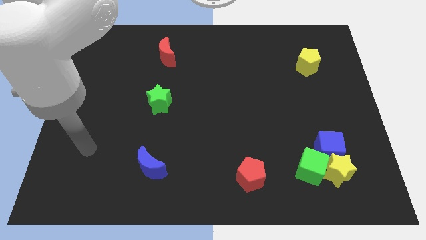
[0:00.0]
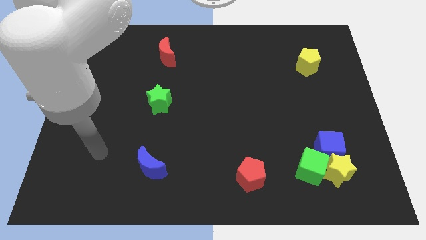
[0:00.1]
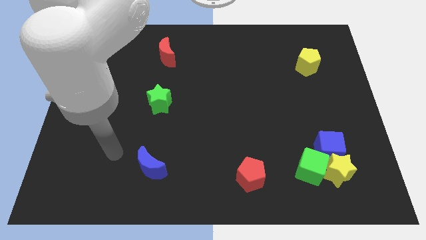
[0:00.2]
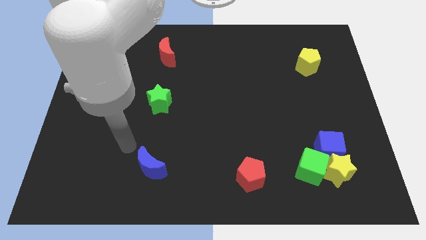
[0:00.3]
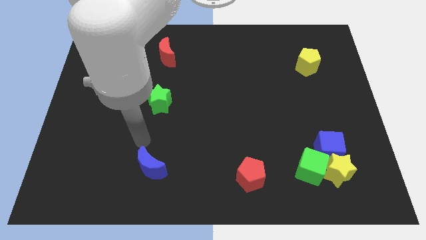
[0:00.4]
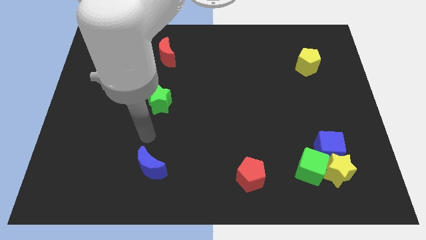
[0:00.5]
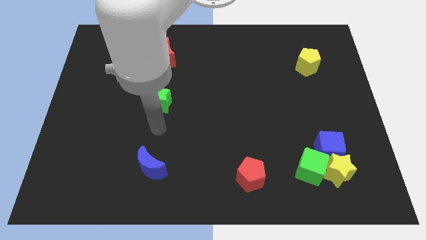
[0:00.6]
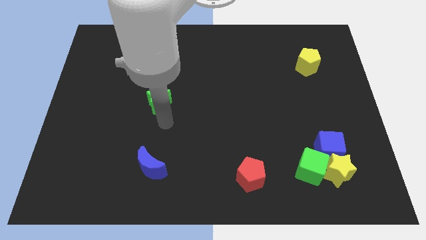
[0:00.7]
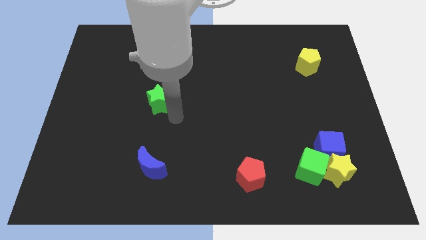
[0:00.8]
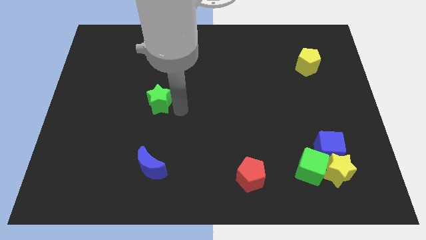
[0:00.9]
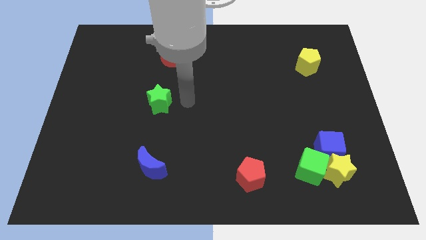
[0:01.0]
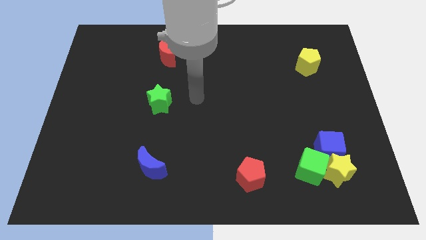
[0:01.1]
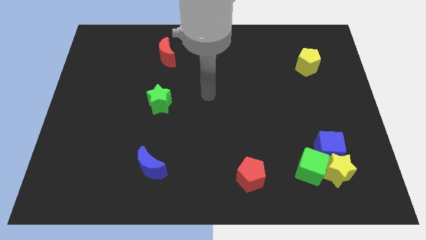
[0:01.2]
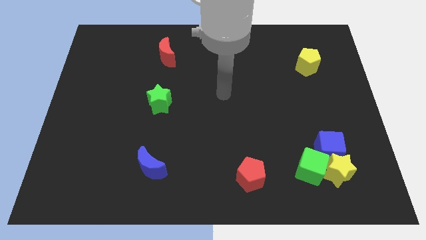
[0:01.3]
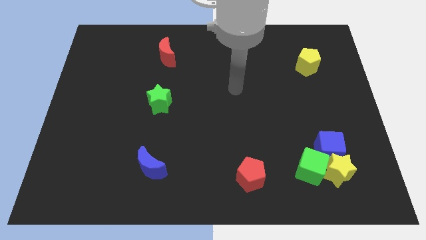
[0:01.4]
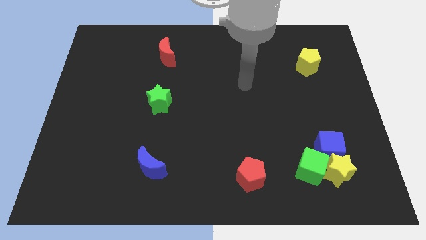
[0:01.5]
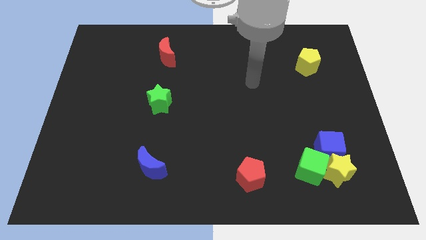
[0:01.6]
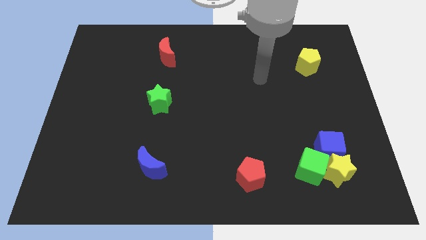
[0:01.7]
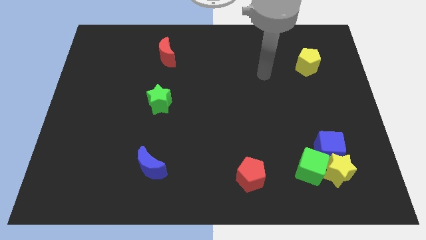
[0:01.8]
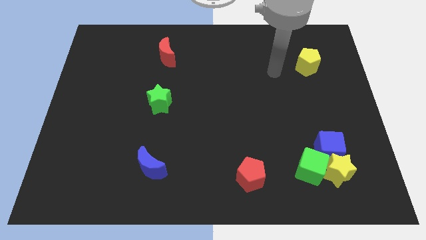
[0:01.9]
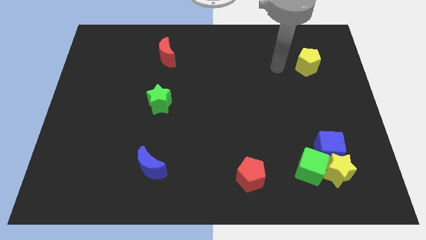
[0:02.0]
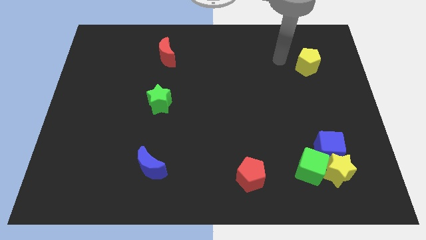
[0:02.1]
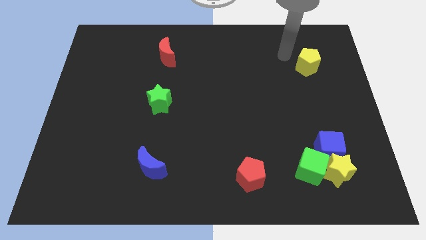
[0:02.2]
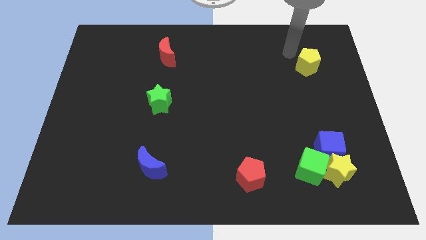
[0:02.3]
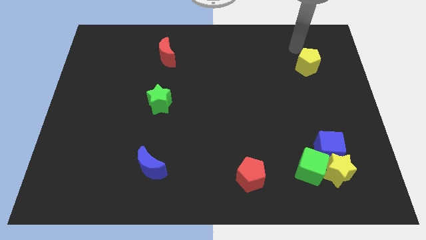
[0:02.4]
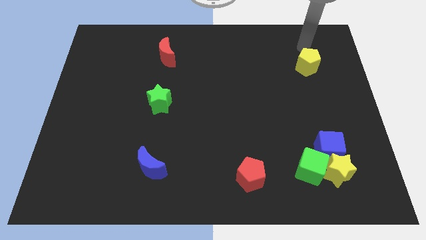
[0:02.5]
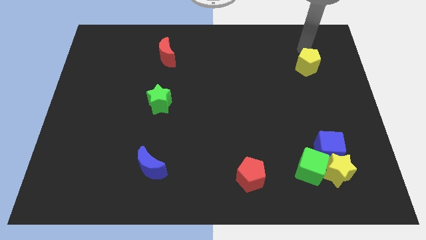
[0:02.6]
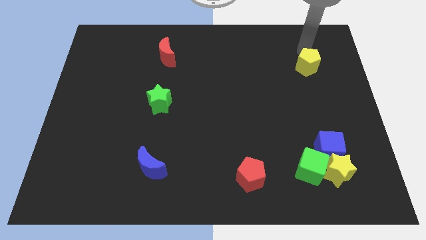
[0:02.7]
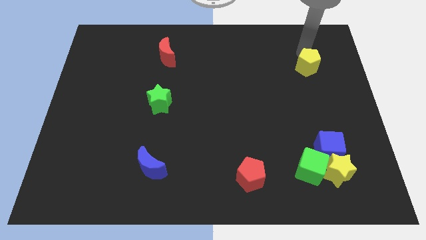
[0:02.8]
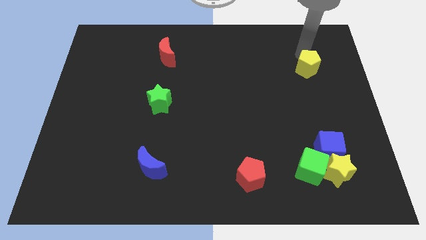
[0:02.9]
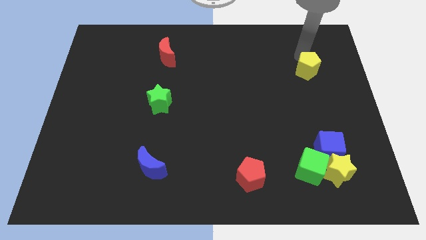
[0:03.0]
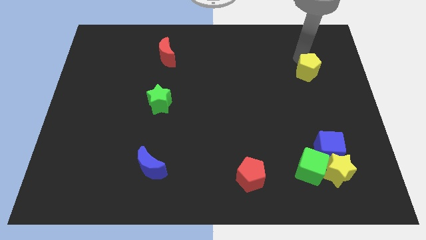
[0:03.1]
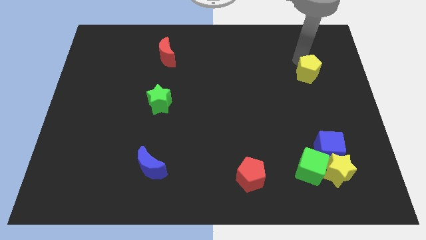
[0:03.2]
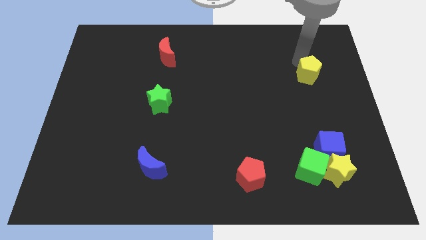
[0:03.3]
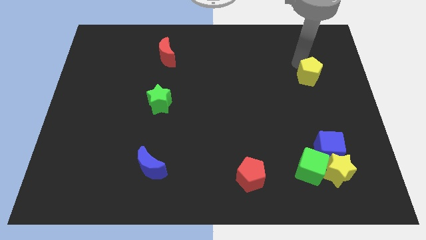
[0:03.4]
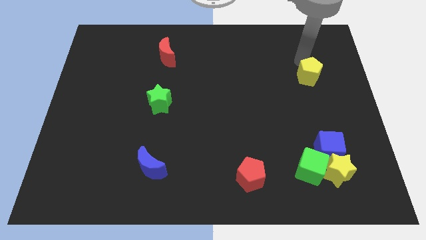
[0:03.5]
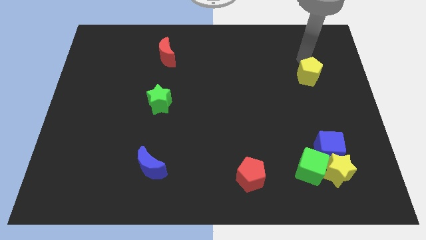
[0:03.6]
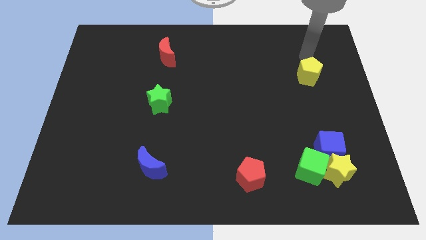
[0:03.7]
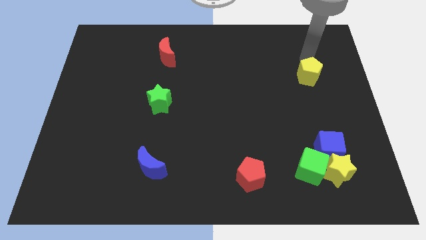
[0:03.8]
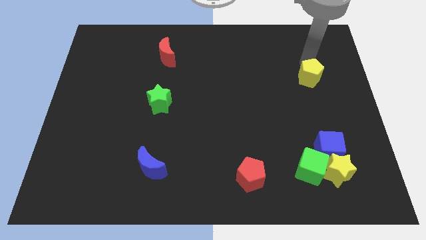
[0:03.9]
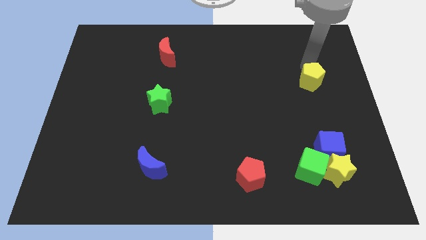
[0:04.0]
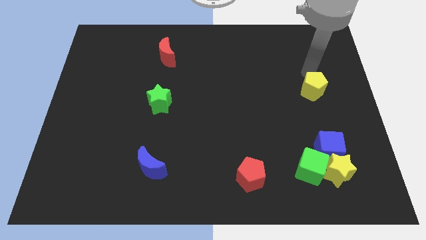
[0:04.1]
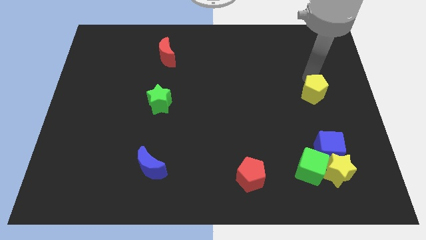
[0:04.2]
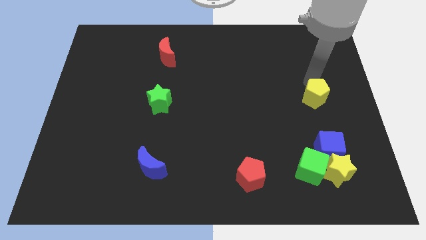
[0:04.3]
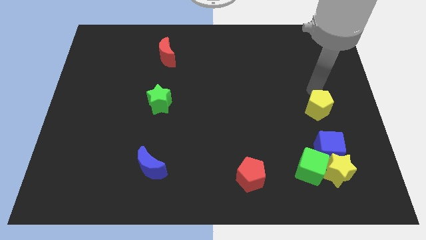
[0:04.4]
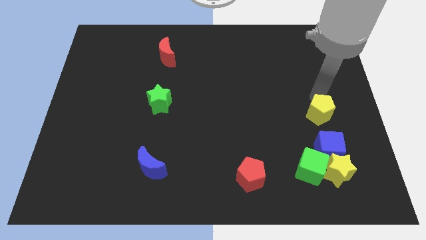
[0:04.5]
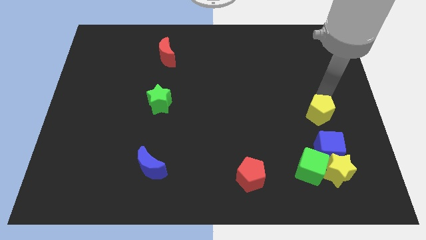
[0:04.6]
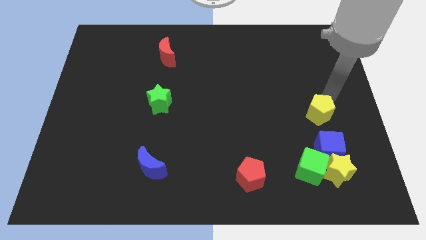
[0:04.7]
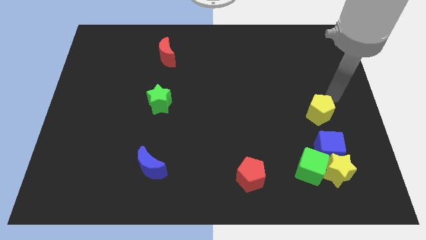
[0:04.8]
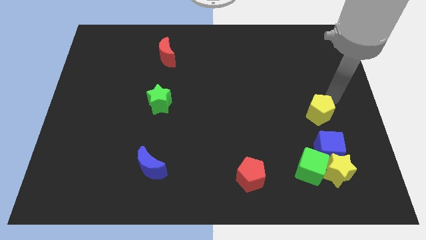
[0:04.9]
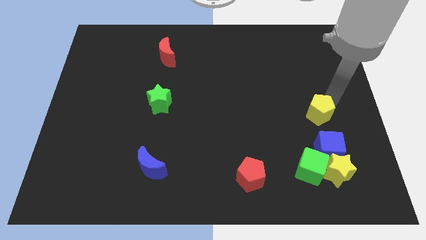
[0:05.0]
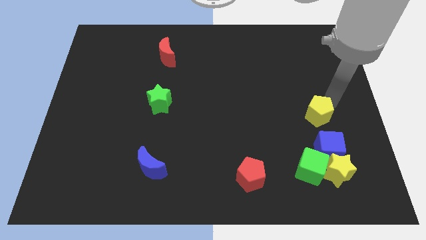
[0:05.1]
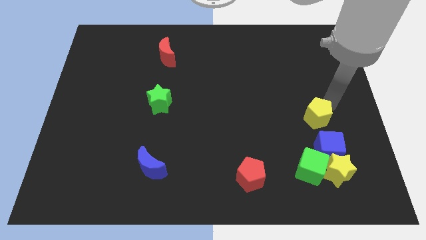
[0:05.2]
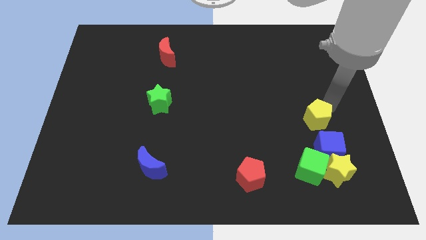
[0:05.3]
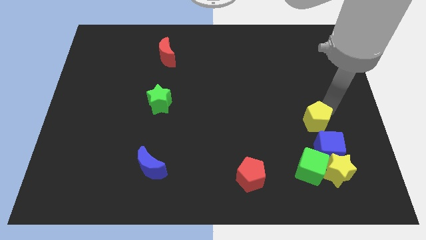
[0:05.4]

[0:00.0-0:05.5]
put the yellow pentagon diagonally up and to the left of the blue cube

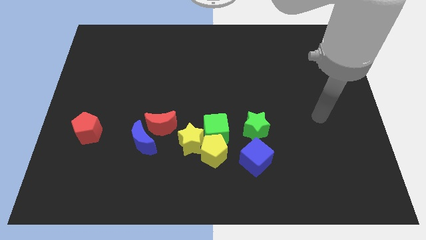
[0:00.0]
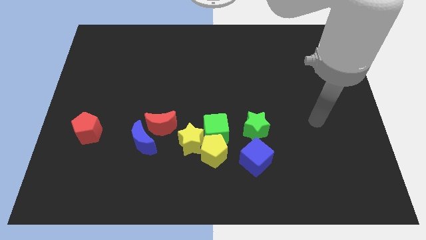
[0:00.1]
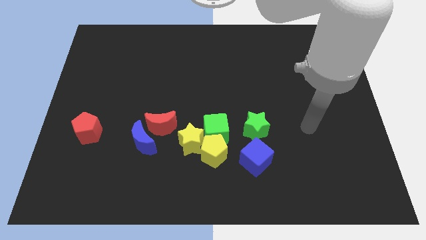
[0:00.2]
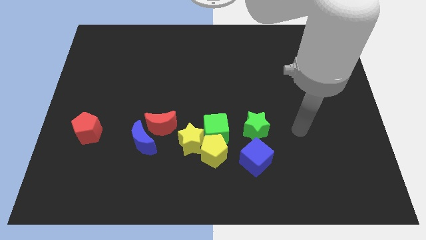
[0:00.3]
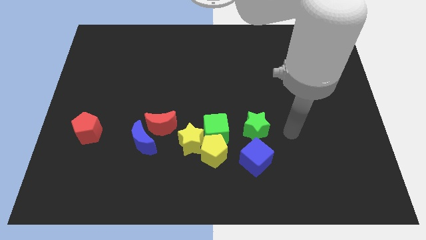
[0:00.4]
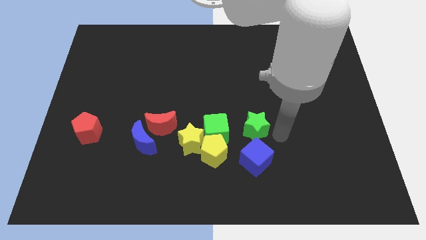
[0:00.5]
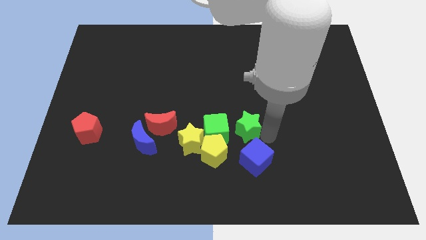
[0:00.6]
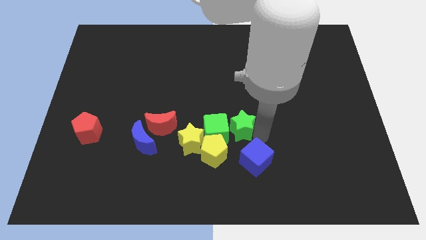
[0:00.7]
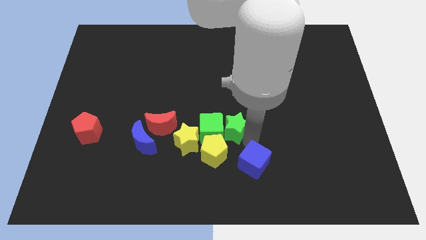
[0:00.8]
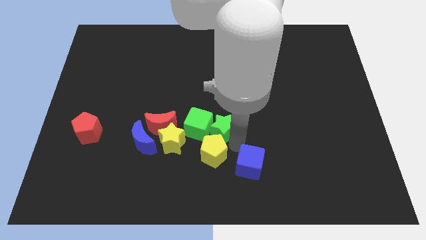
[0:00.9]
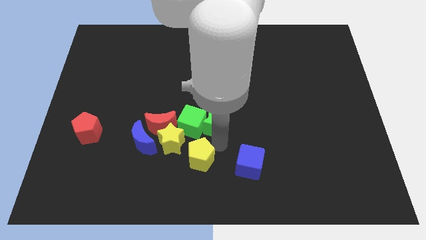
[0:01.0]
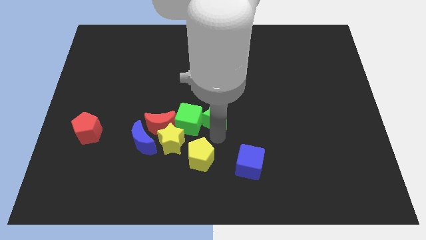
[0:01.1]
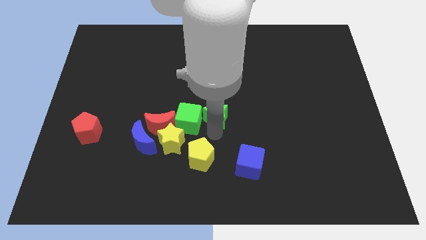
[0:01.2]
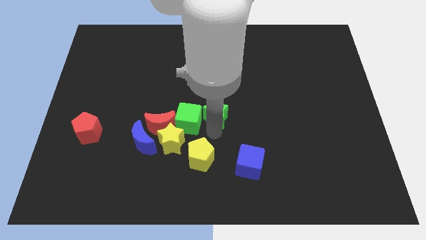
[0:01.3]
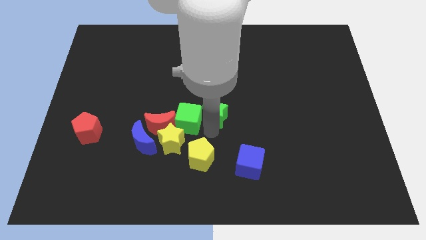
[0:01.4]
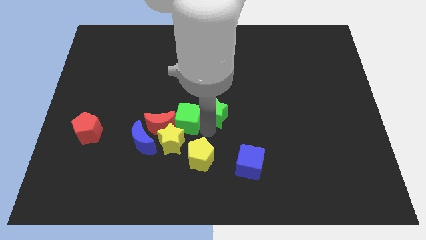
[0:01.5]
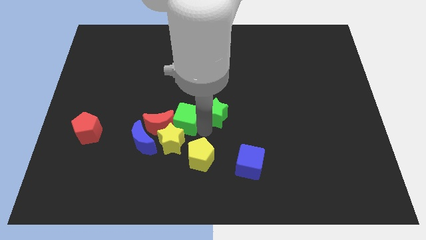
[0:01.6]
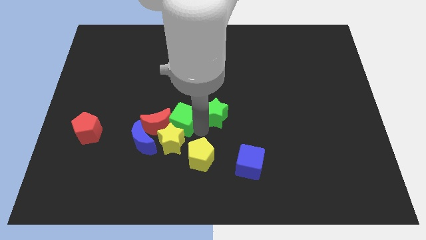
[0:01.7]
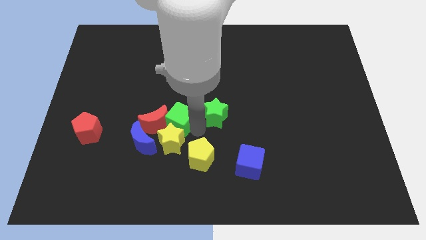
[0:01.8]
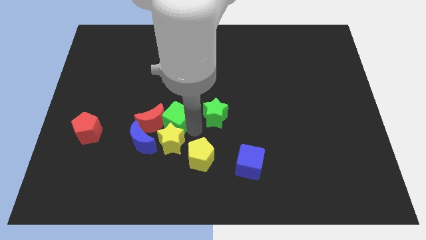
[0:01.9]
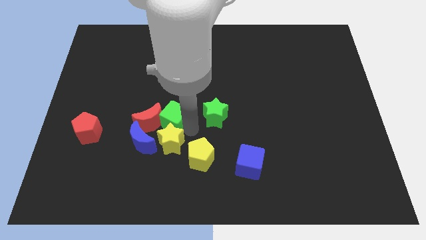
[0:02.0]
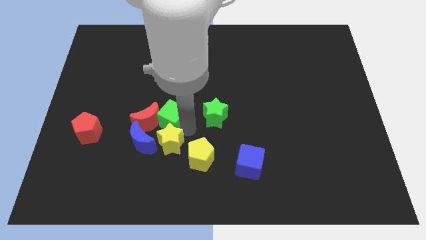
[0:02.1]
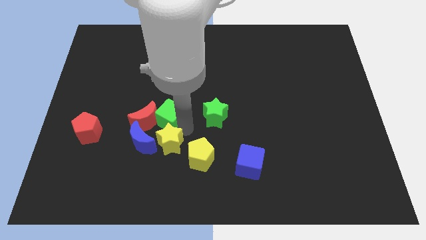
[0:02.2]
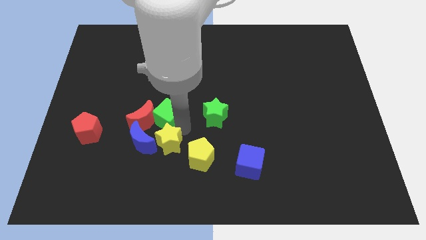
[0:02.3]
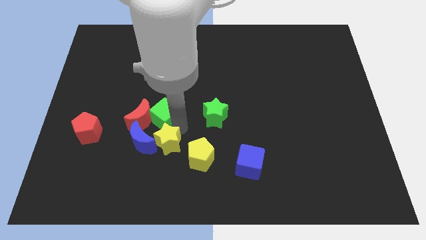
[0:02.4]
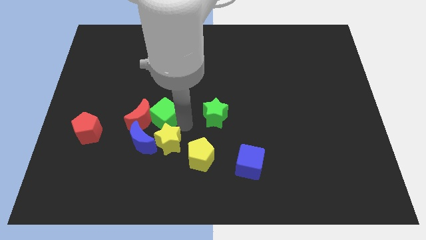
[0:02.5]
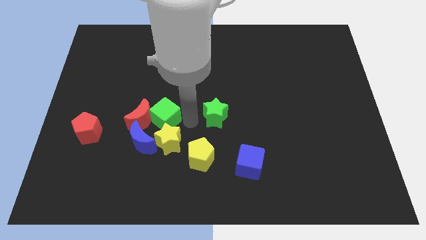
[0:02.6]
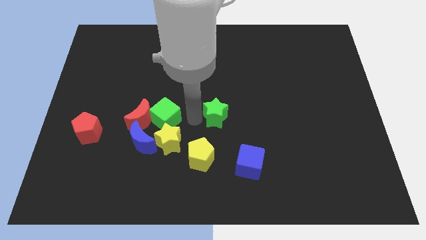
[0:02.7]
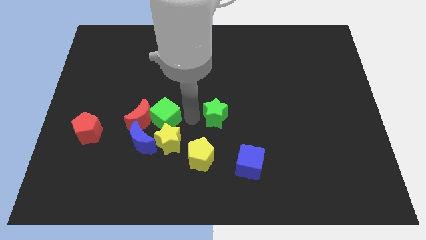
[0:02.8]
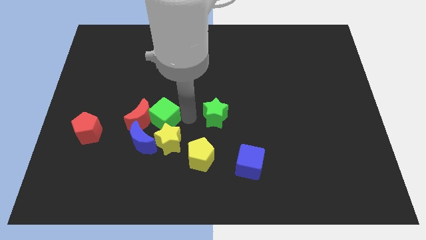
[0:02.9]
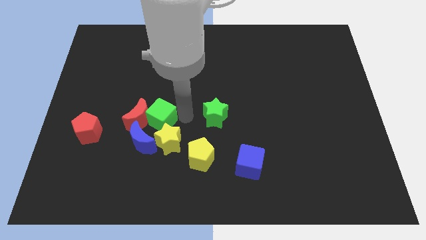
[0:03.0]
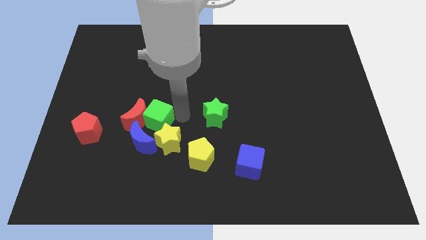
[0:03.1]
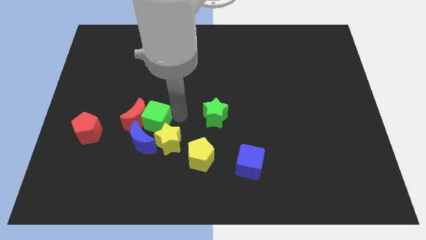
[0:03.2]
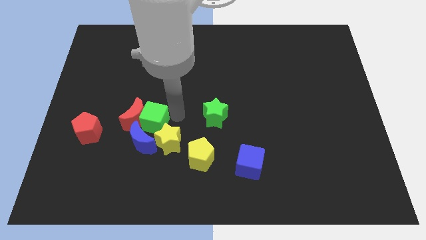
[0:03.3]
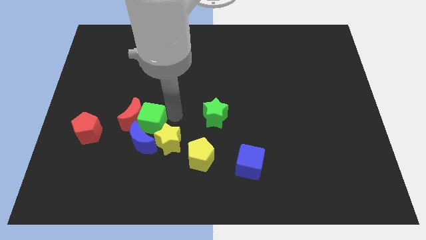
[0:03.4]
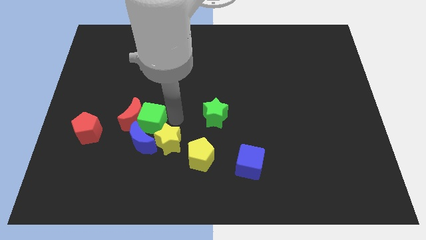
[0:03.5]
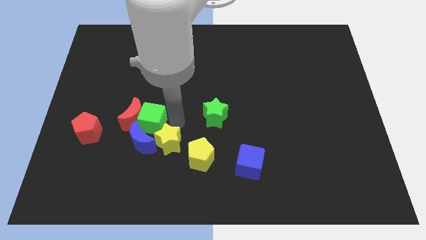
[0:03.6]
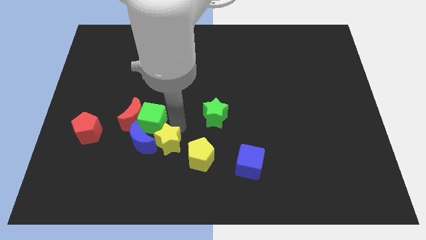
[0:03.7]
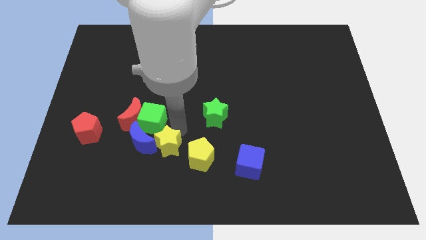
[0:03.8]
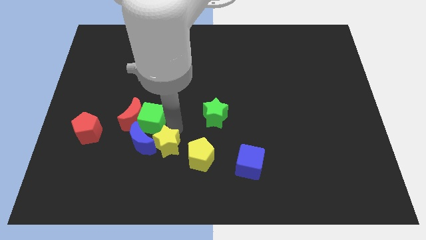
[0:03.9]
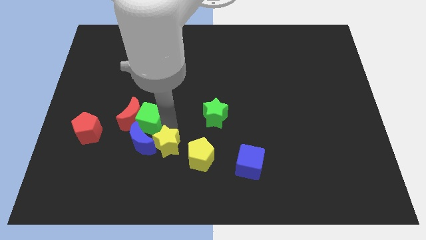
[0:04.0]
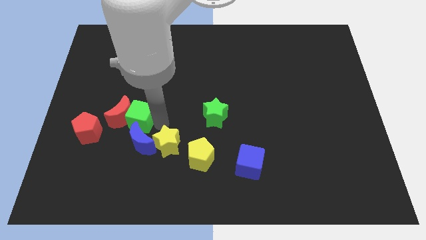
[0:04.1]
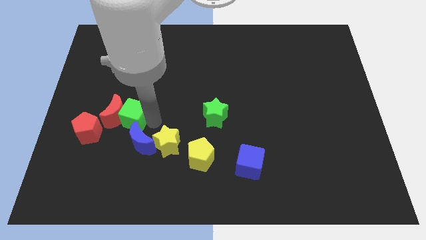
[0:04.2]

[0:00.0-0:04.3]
put the green cube diagonally up and to the right of the red pentagon
